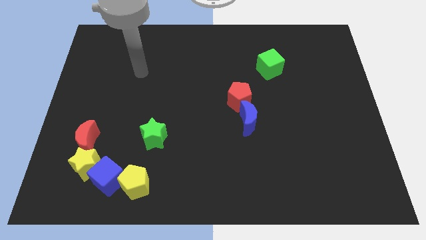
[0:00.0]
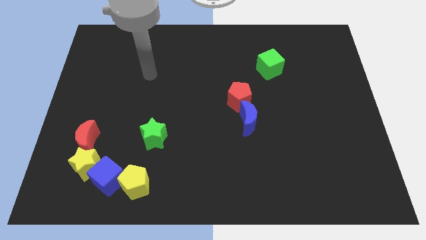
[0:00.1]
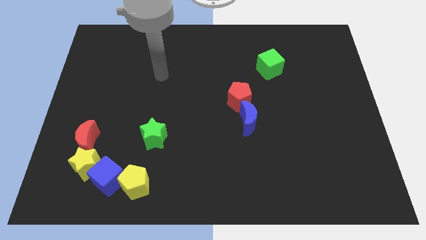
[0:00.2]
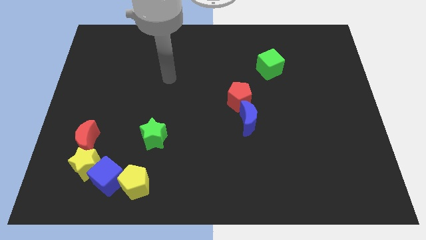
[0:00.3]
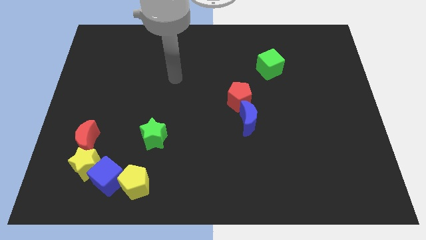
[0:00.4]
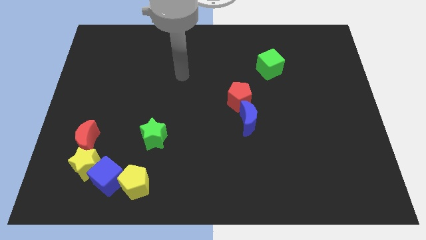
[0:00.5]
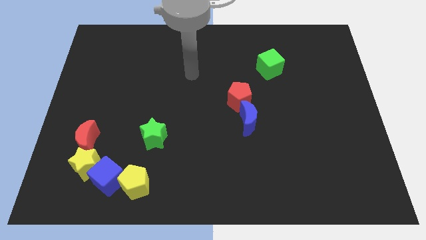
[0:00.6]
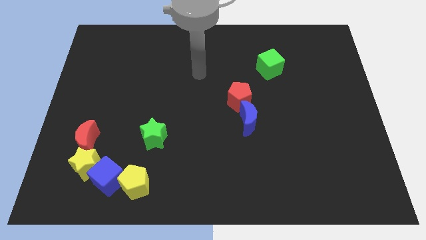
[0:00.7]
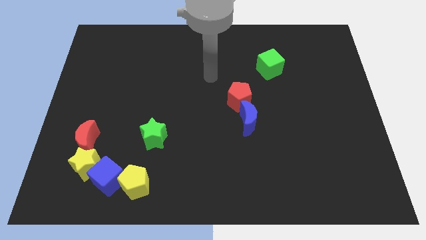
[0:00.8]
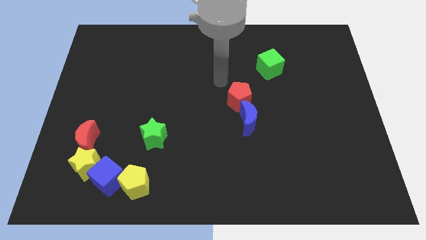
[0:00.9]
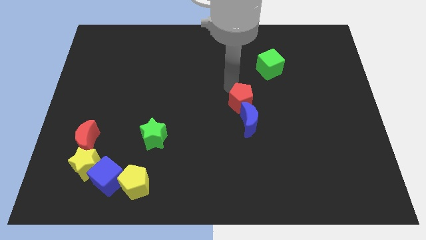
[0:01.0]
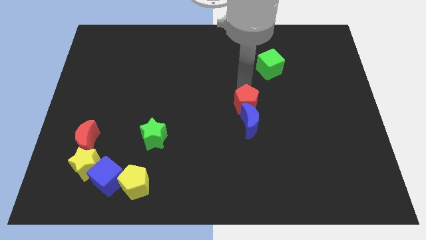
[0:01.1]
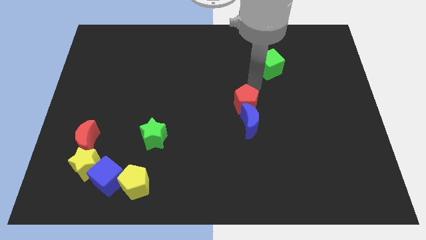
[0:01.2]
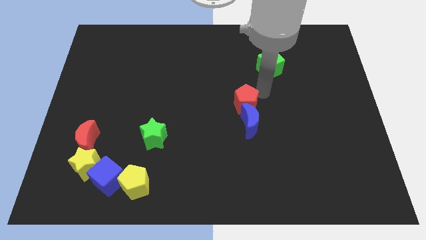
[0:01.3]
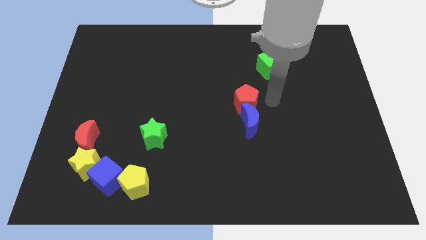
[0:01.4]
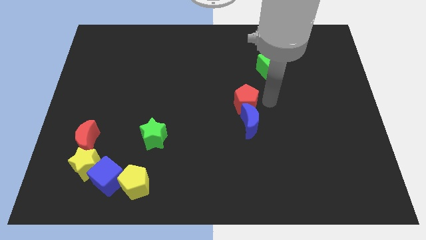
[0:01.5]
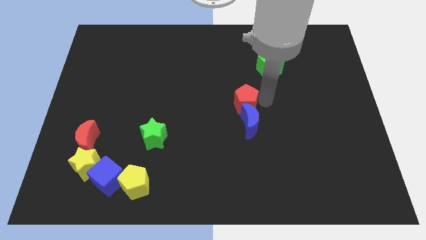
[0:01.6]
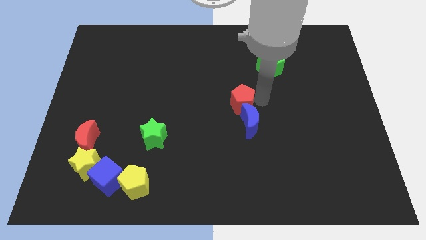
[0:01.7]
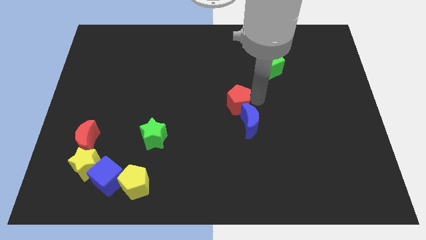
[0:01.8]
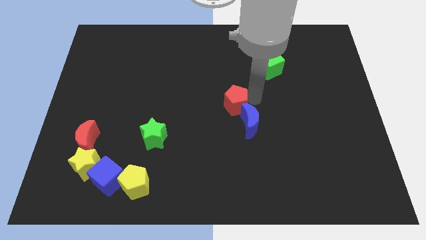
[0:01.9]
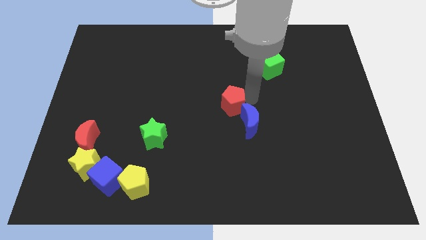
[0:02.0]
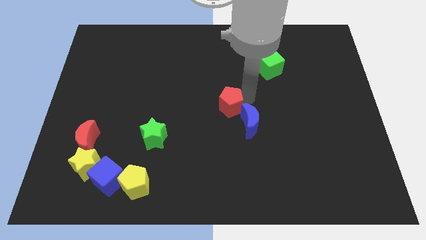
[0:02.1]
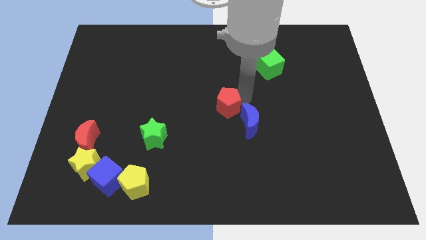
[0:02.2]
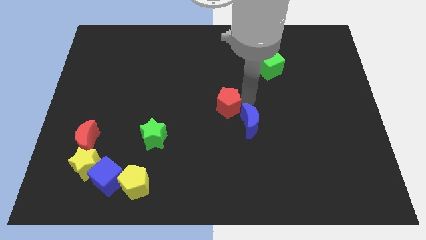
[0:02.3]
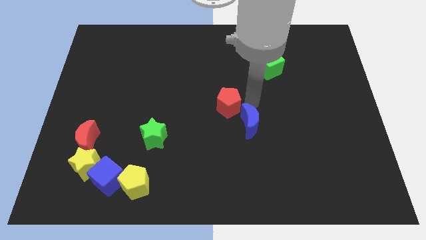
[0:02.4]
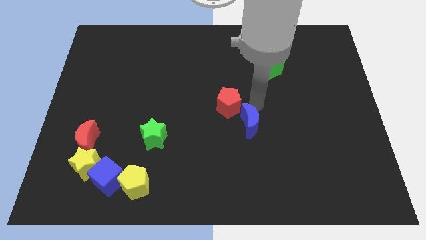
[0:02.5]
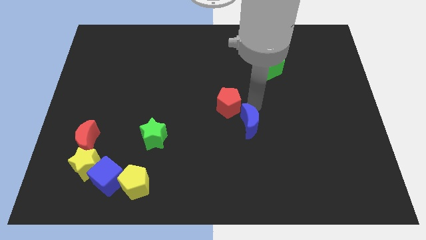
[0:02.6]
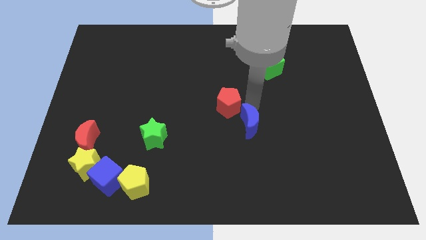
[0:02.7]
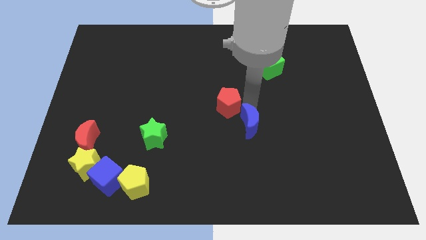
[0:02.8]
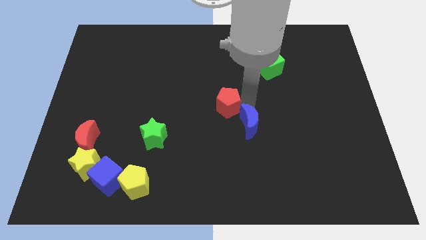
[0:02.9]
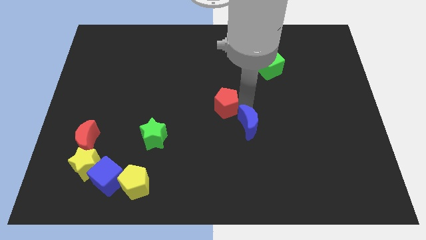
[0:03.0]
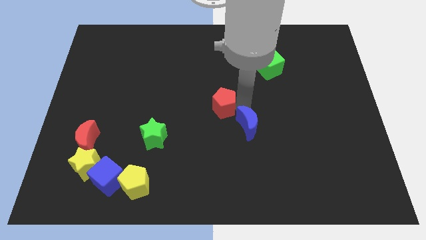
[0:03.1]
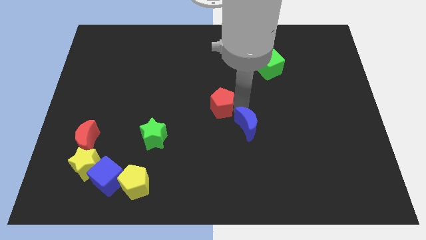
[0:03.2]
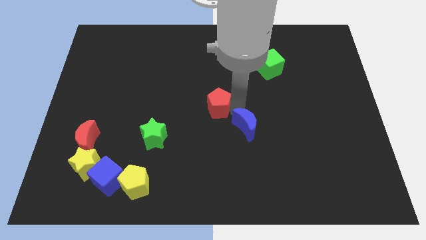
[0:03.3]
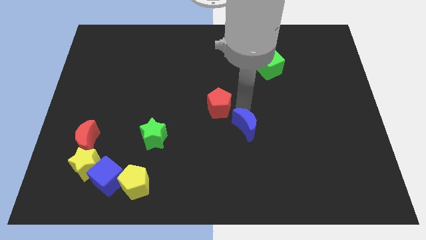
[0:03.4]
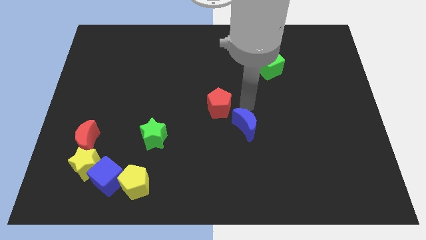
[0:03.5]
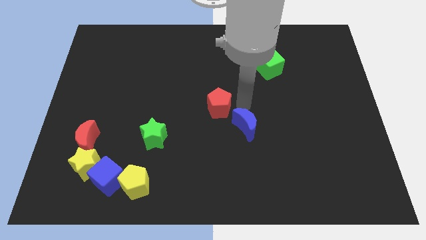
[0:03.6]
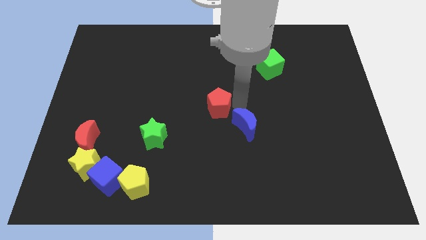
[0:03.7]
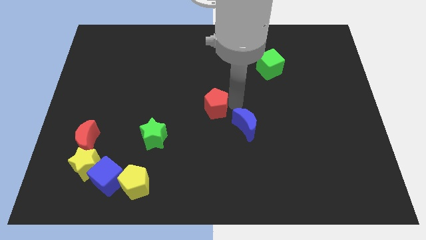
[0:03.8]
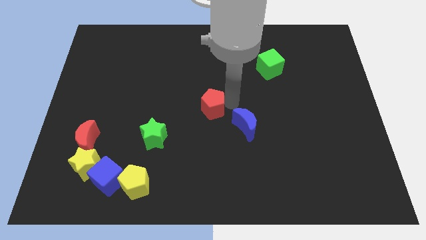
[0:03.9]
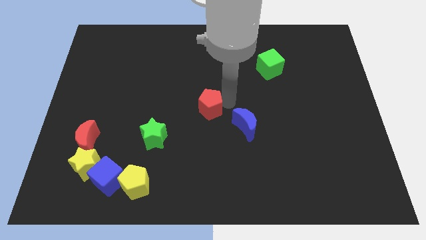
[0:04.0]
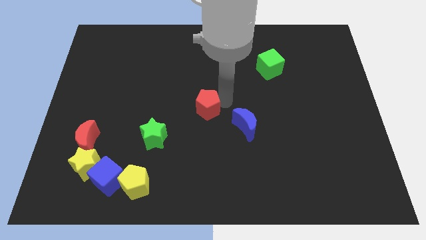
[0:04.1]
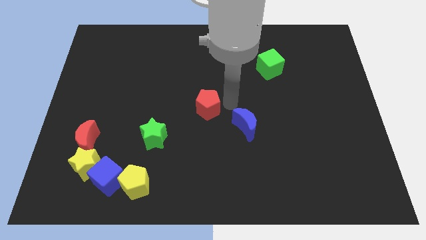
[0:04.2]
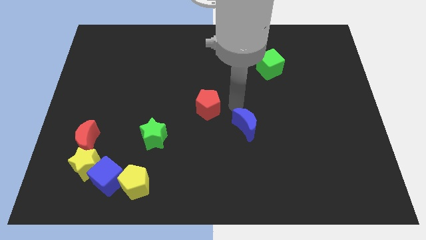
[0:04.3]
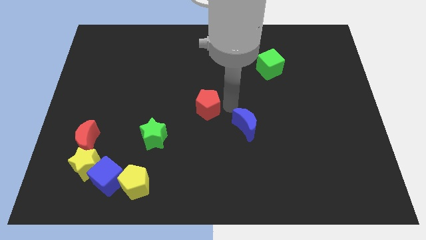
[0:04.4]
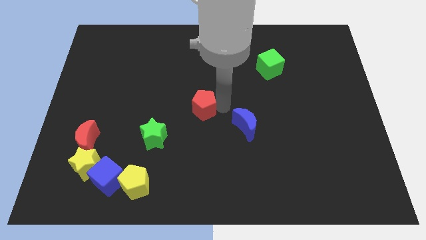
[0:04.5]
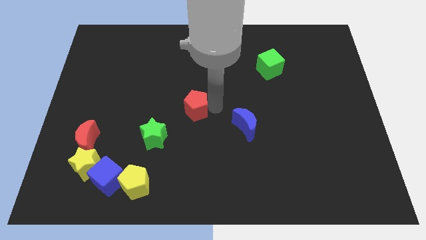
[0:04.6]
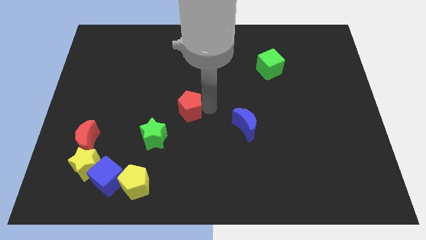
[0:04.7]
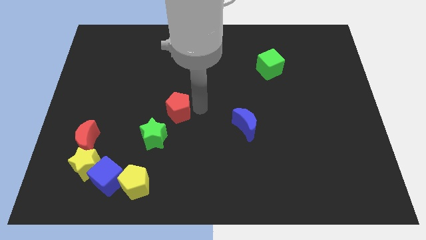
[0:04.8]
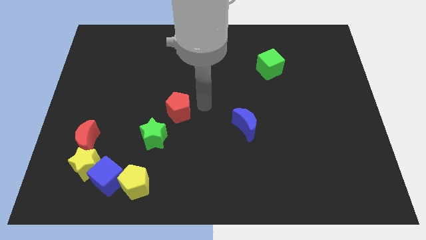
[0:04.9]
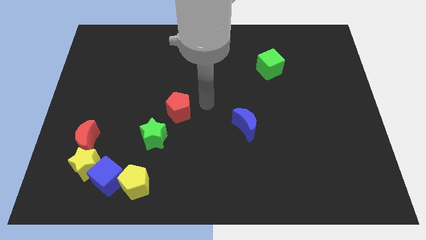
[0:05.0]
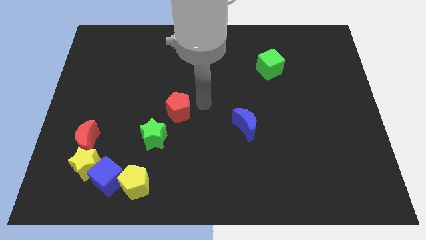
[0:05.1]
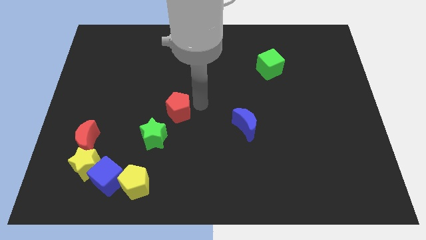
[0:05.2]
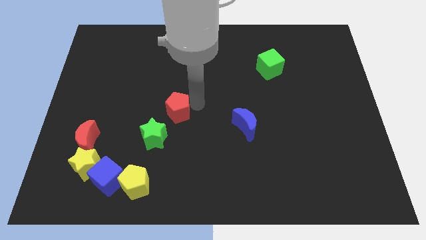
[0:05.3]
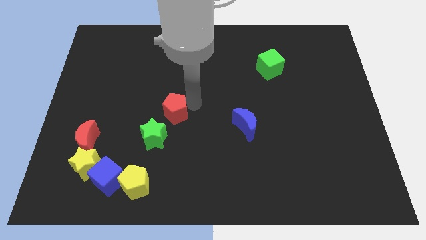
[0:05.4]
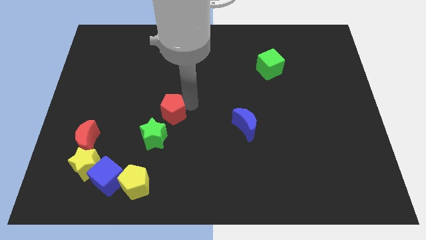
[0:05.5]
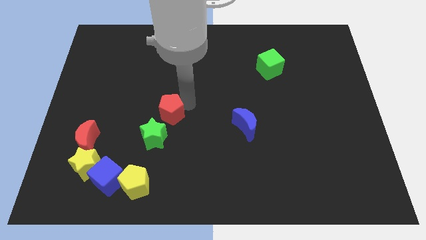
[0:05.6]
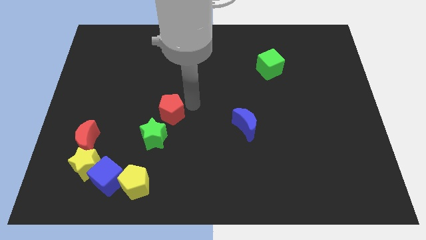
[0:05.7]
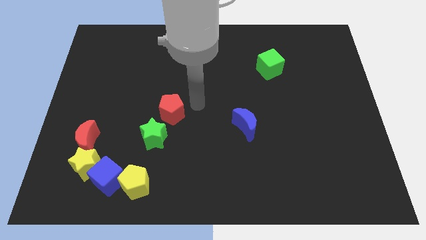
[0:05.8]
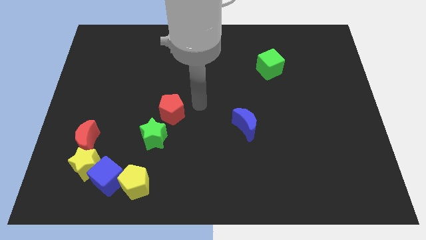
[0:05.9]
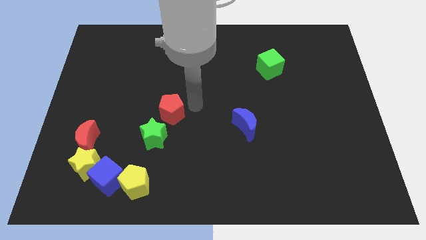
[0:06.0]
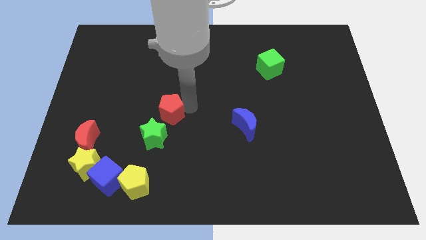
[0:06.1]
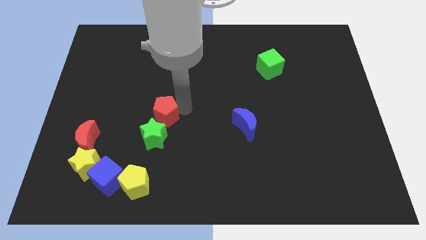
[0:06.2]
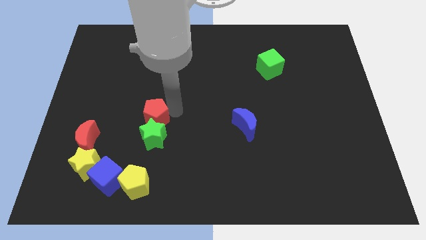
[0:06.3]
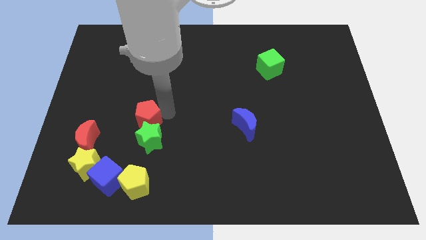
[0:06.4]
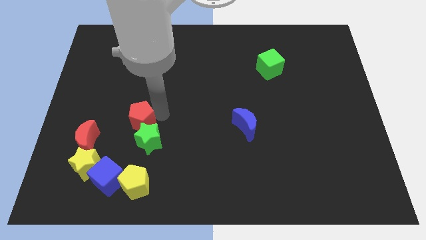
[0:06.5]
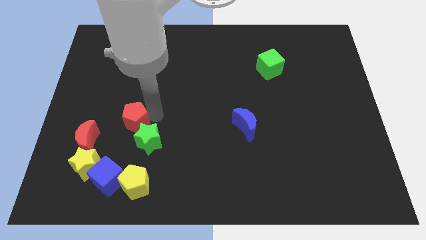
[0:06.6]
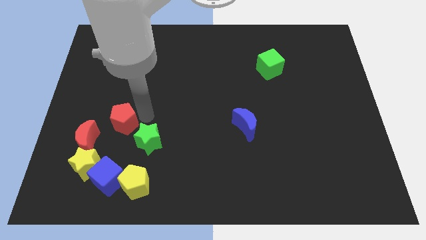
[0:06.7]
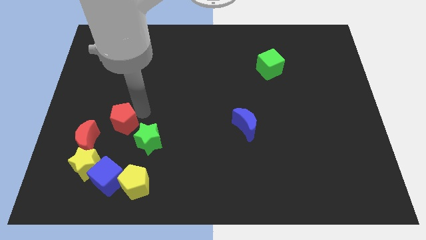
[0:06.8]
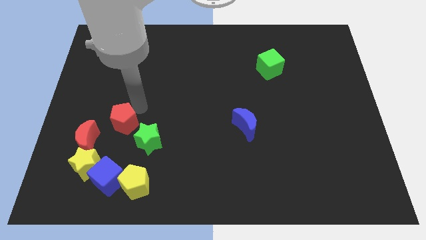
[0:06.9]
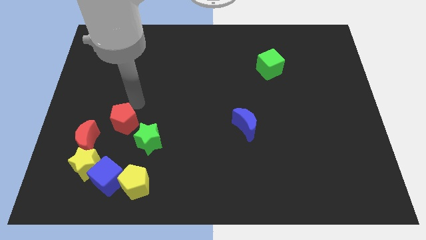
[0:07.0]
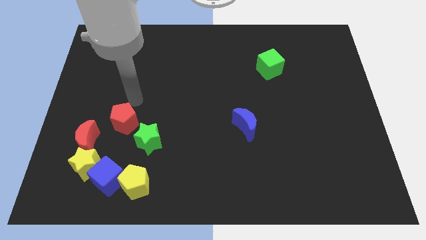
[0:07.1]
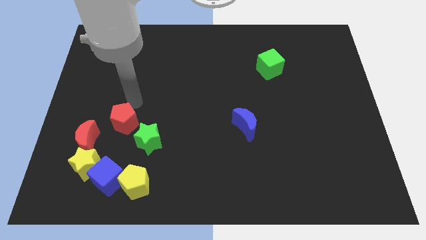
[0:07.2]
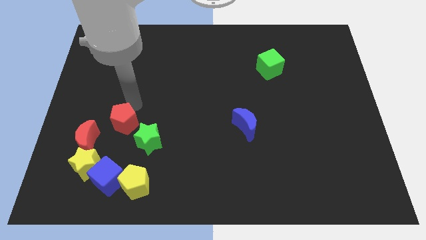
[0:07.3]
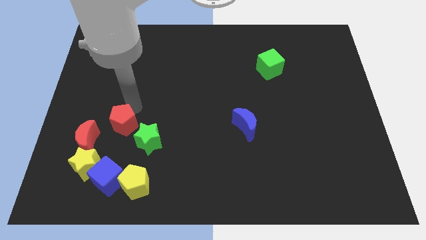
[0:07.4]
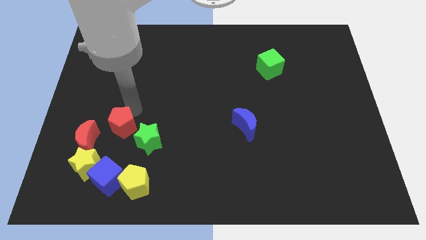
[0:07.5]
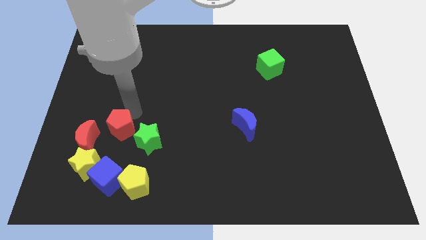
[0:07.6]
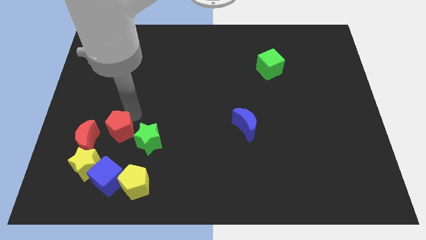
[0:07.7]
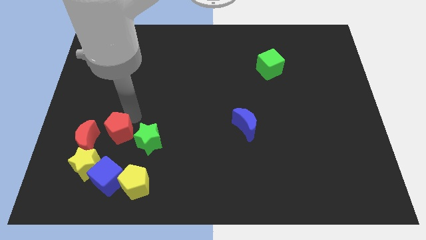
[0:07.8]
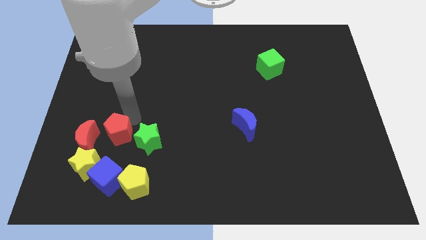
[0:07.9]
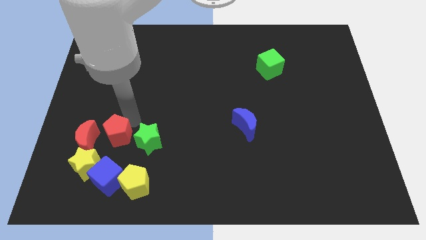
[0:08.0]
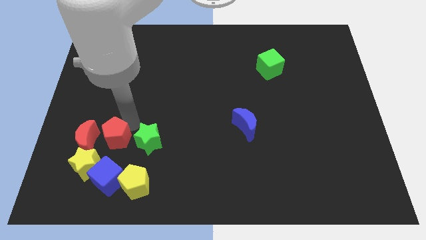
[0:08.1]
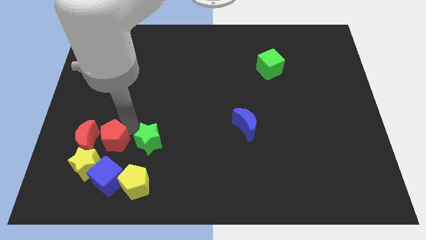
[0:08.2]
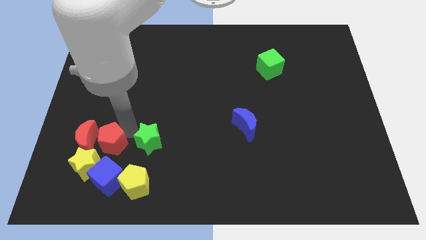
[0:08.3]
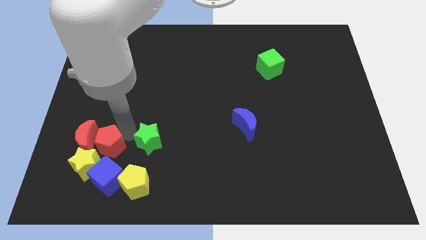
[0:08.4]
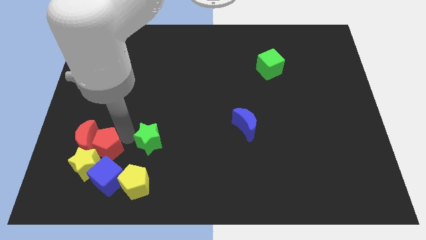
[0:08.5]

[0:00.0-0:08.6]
push the red pentagon to the yellow star
